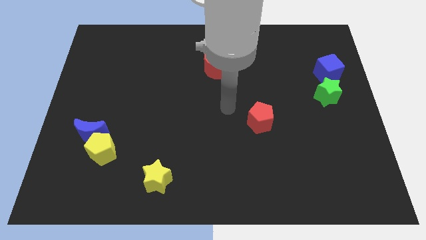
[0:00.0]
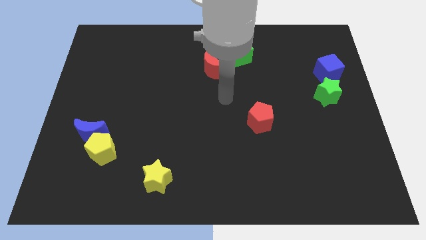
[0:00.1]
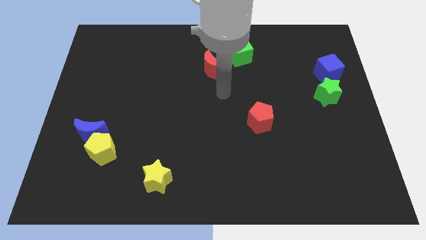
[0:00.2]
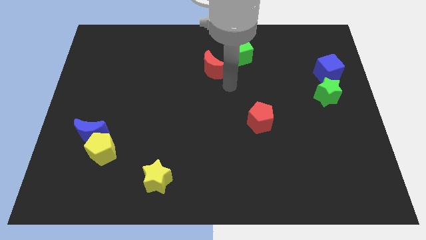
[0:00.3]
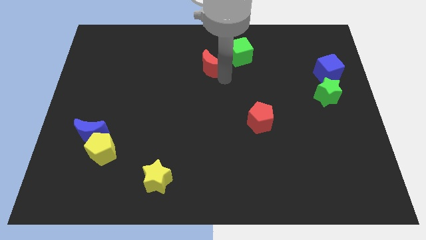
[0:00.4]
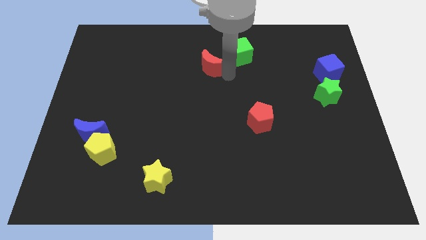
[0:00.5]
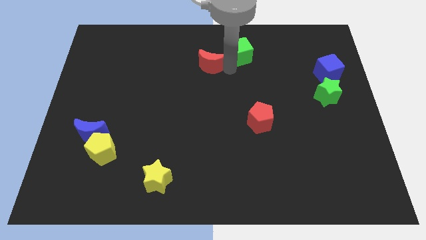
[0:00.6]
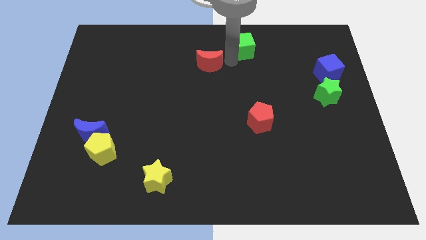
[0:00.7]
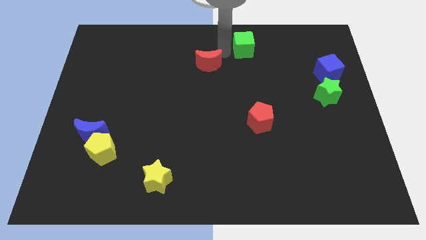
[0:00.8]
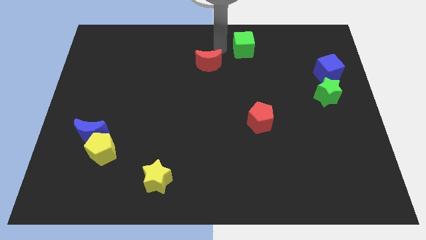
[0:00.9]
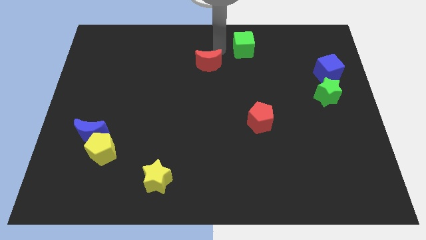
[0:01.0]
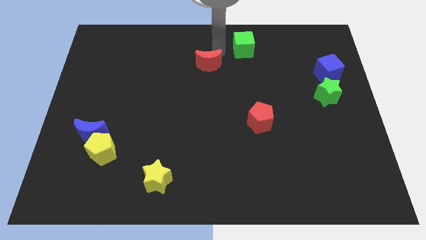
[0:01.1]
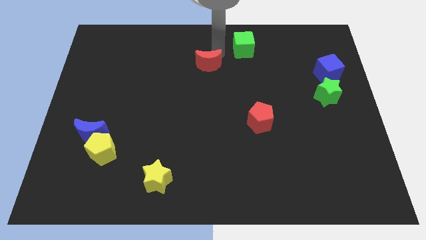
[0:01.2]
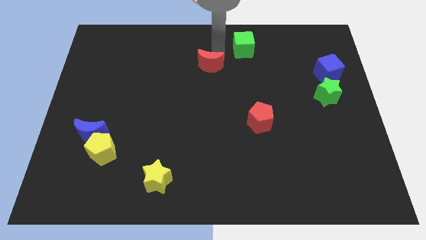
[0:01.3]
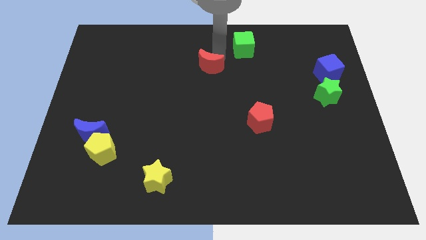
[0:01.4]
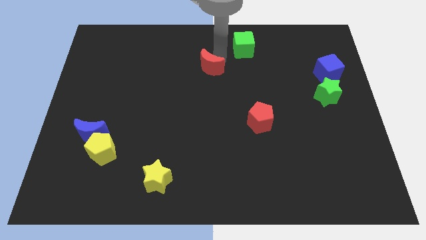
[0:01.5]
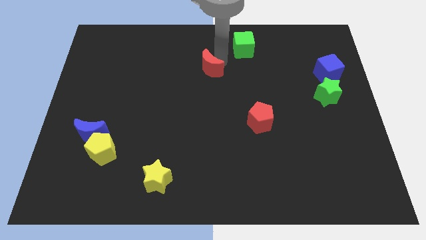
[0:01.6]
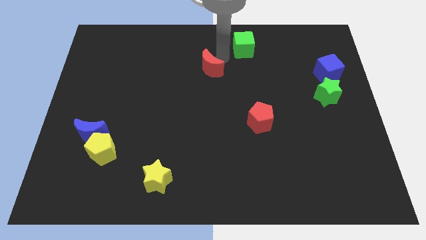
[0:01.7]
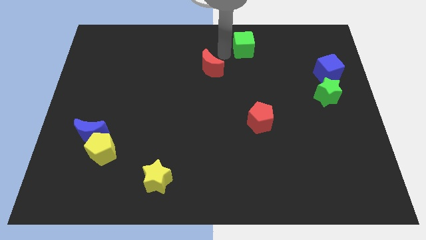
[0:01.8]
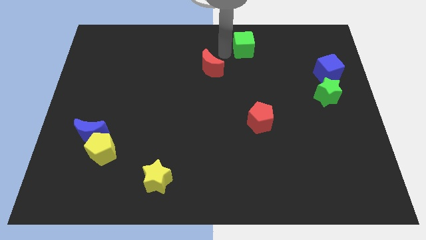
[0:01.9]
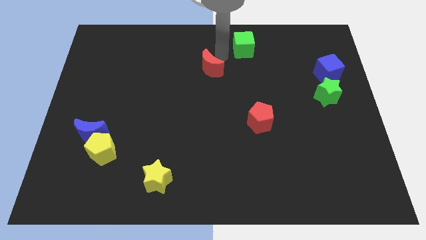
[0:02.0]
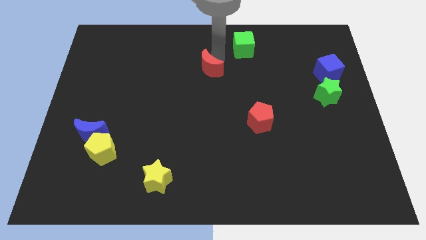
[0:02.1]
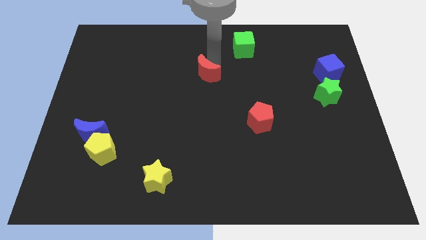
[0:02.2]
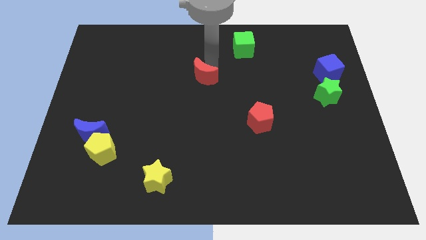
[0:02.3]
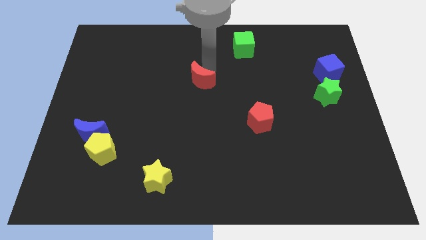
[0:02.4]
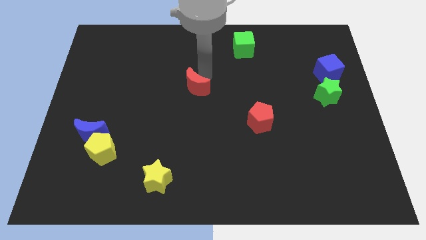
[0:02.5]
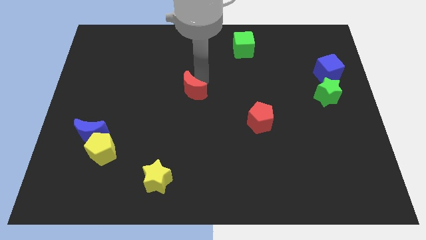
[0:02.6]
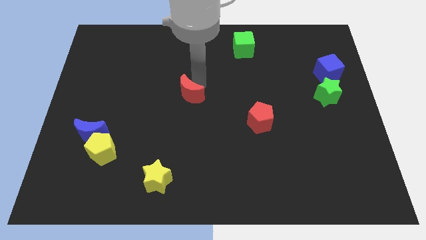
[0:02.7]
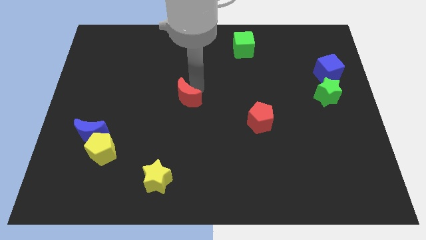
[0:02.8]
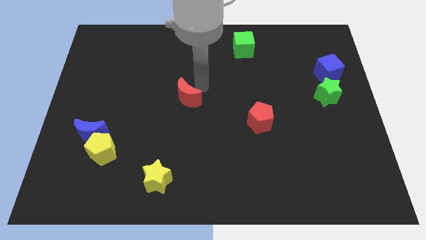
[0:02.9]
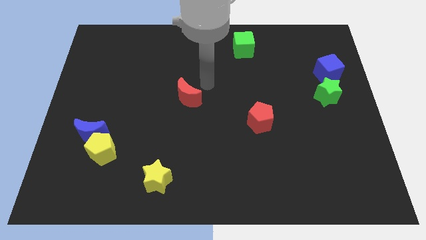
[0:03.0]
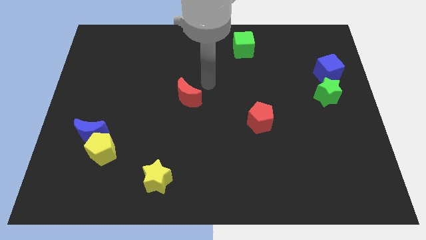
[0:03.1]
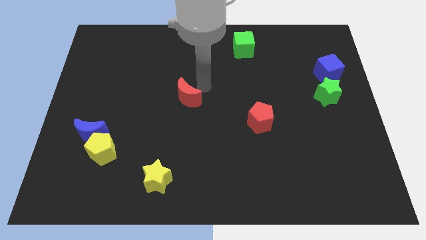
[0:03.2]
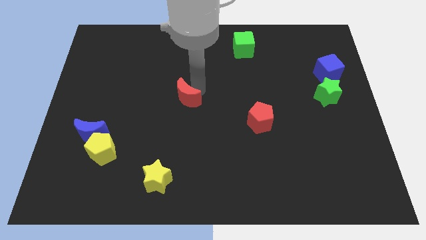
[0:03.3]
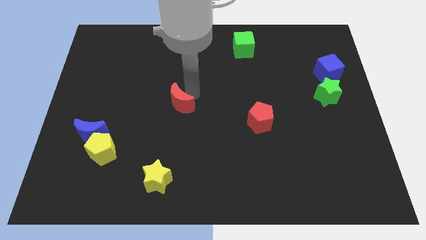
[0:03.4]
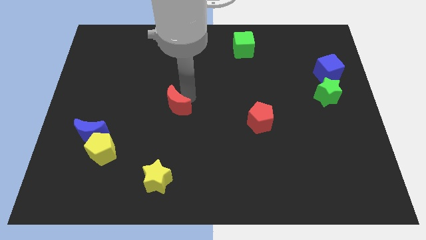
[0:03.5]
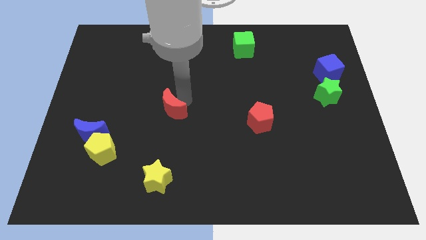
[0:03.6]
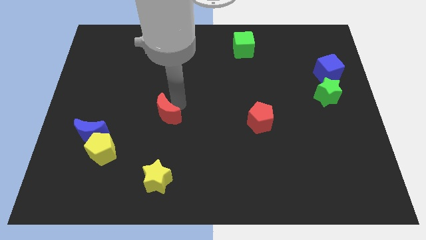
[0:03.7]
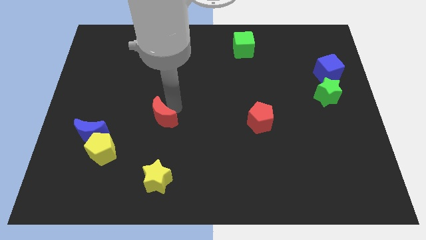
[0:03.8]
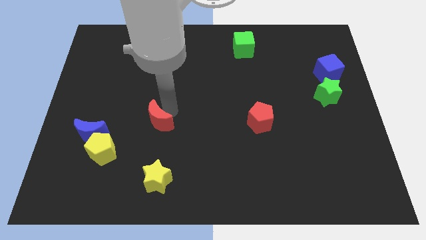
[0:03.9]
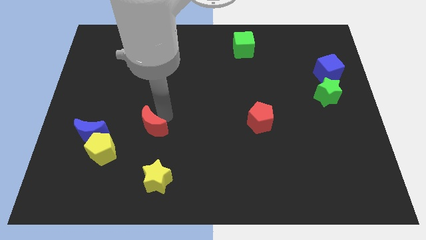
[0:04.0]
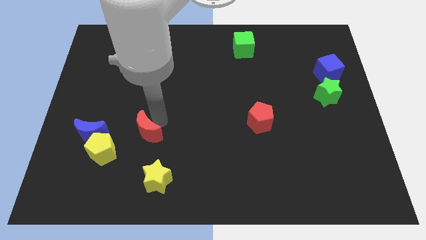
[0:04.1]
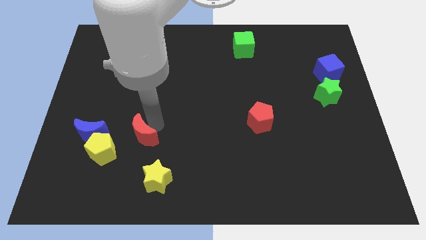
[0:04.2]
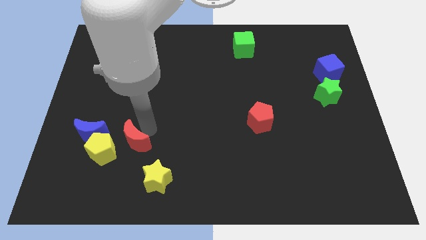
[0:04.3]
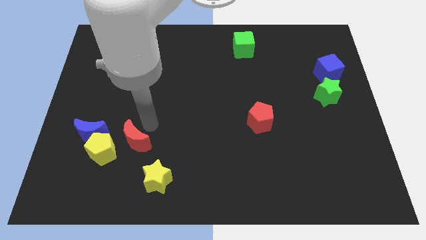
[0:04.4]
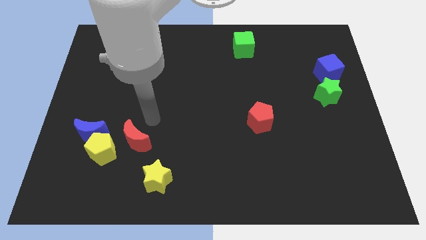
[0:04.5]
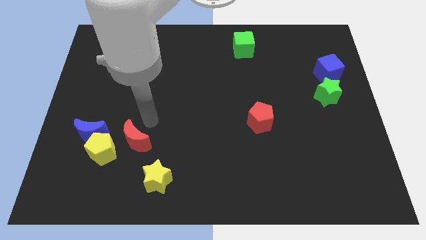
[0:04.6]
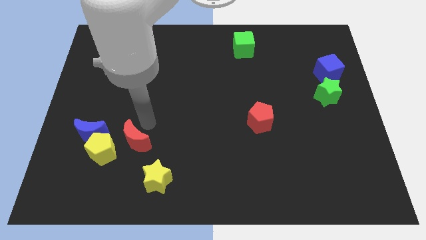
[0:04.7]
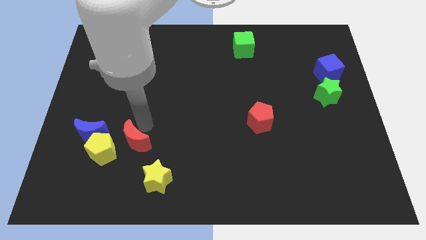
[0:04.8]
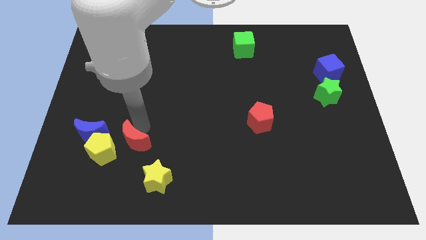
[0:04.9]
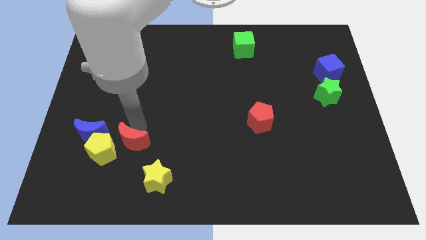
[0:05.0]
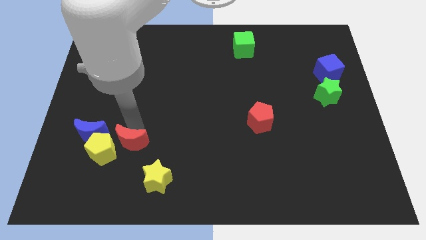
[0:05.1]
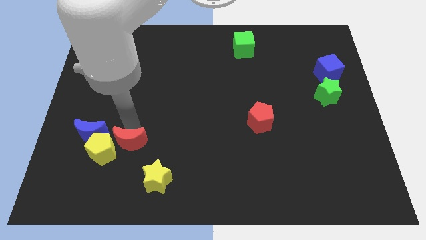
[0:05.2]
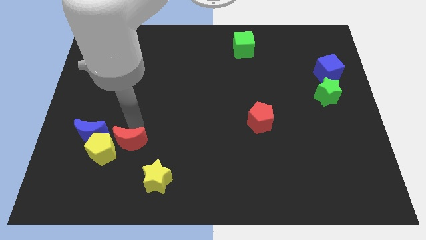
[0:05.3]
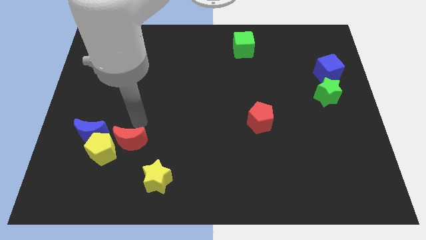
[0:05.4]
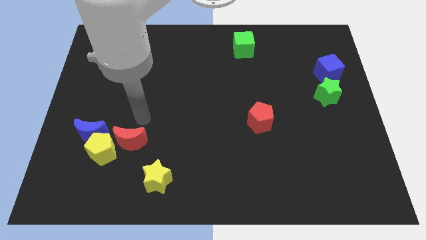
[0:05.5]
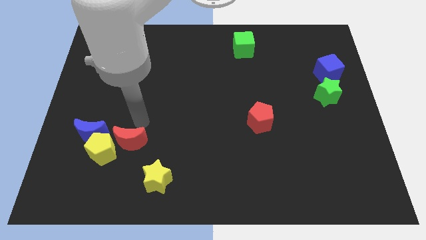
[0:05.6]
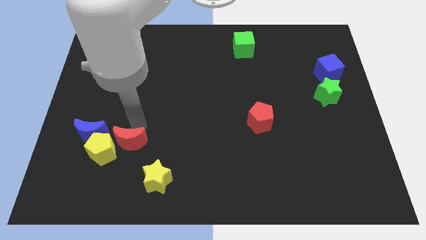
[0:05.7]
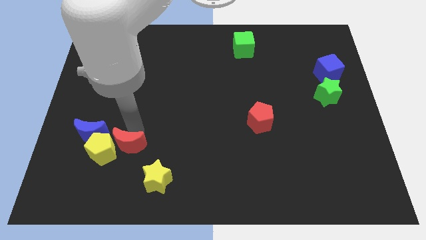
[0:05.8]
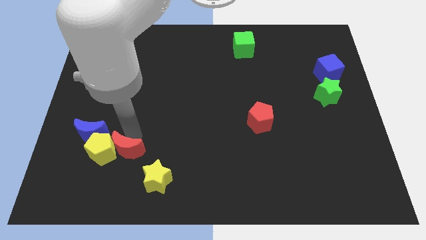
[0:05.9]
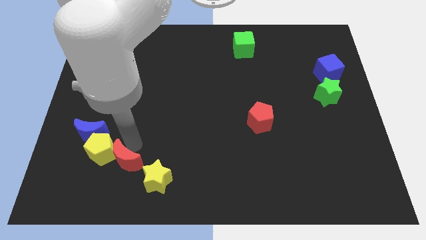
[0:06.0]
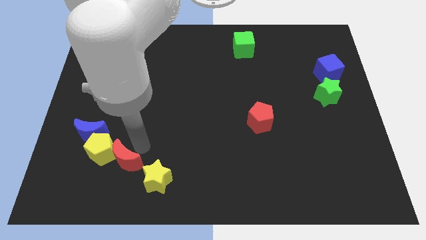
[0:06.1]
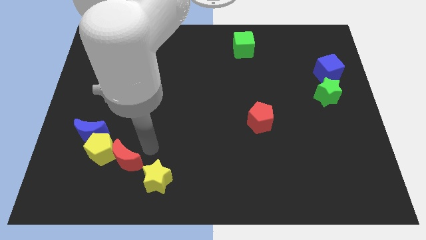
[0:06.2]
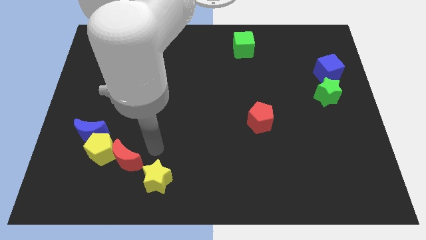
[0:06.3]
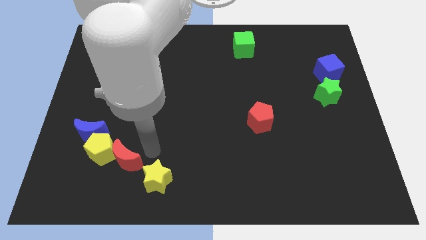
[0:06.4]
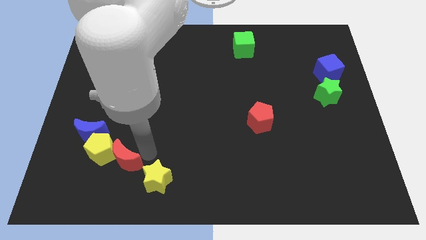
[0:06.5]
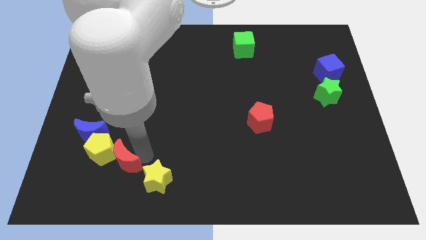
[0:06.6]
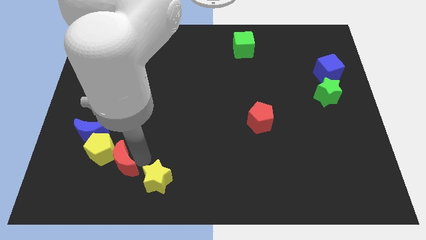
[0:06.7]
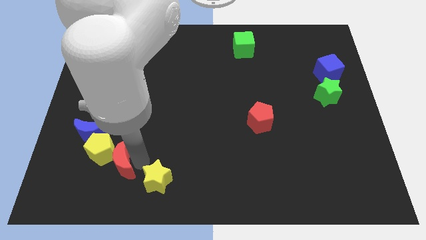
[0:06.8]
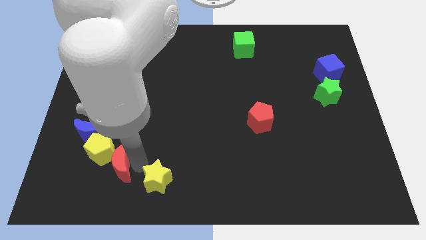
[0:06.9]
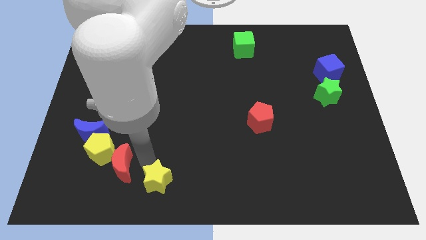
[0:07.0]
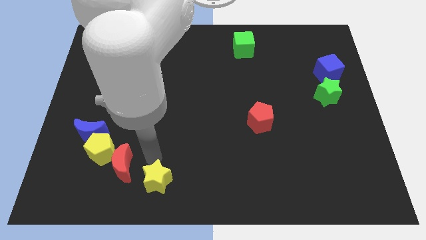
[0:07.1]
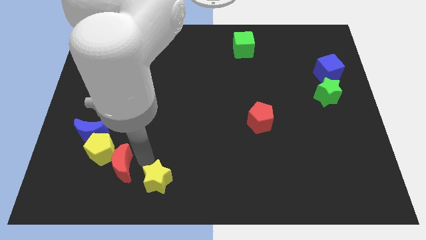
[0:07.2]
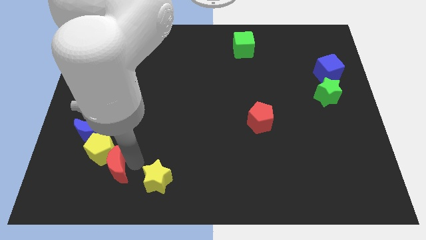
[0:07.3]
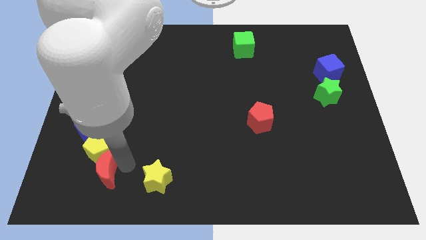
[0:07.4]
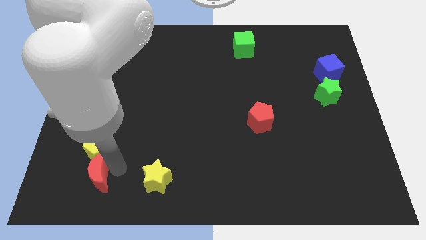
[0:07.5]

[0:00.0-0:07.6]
move the red moon below the blue moon

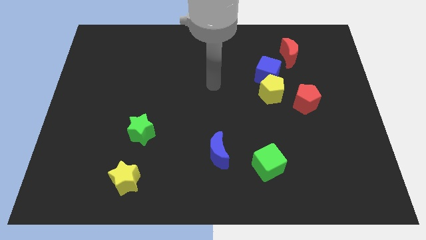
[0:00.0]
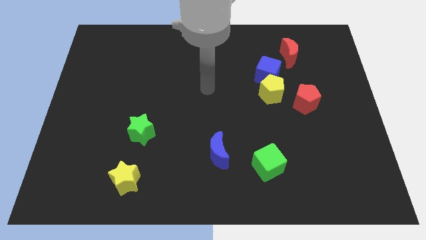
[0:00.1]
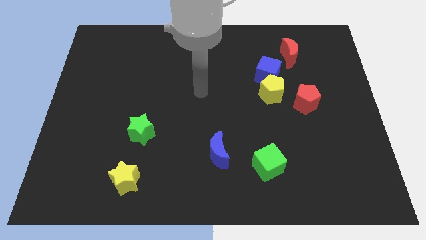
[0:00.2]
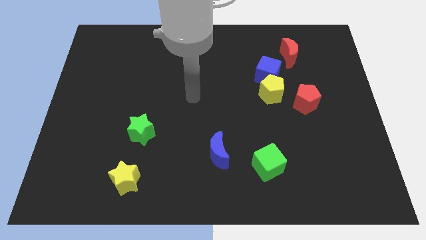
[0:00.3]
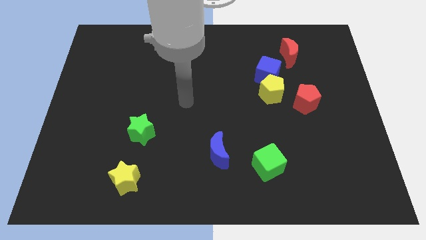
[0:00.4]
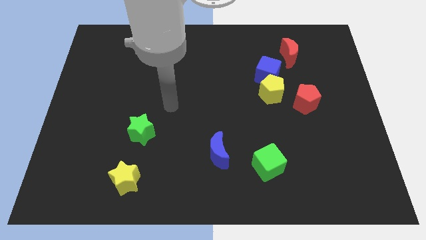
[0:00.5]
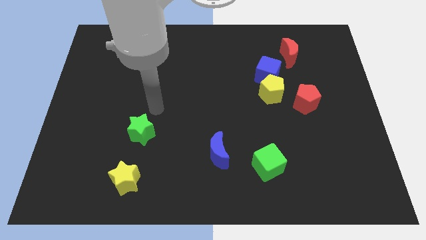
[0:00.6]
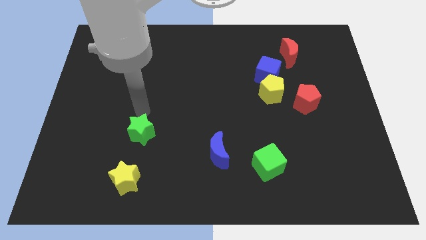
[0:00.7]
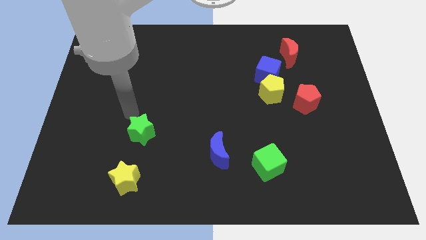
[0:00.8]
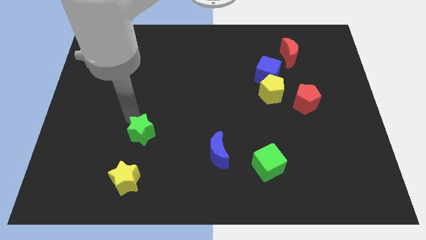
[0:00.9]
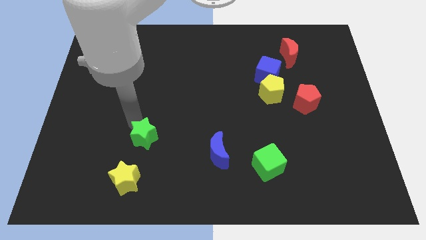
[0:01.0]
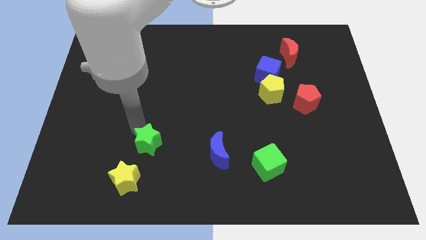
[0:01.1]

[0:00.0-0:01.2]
put the green star diagonally up and to the right of the yellow star
